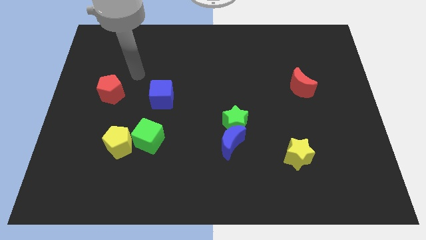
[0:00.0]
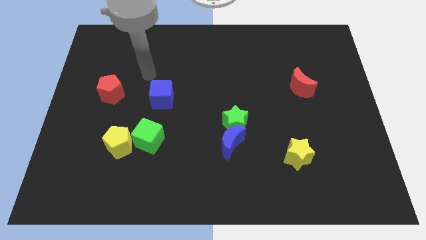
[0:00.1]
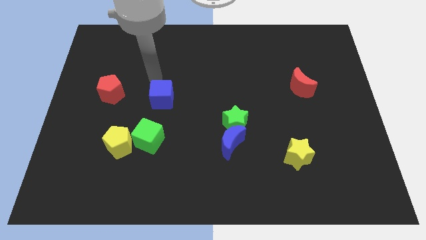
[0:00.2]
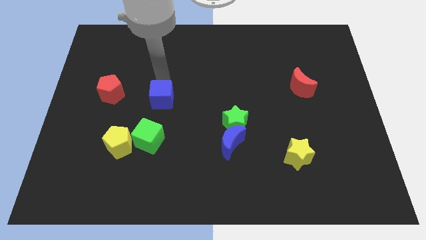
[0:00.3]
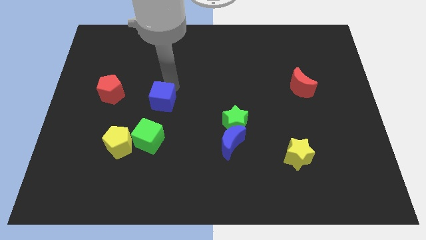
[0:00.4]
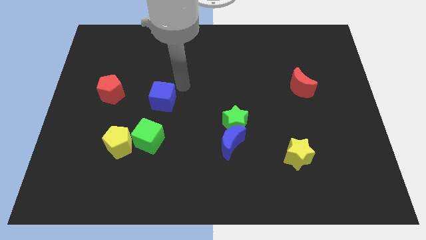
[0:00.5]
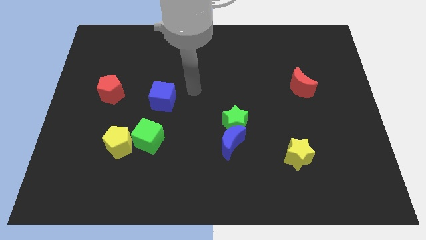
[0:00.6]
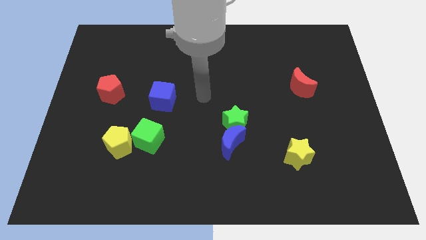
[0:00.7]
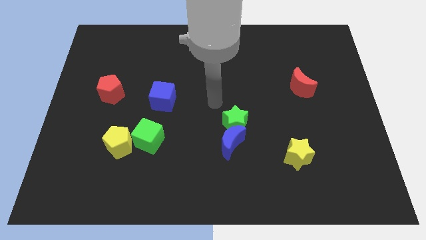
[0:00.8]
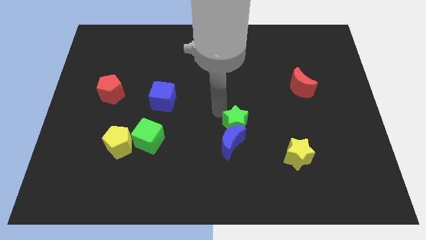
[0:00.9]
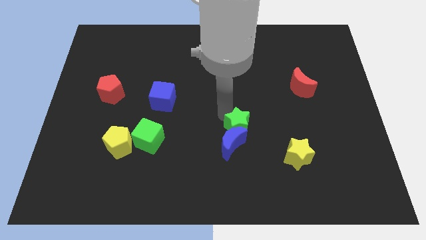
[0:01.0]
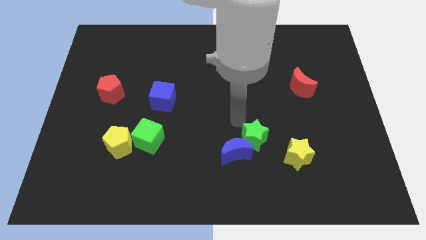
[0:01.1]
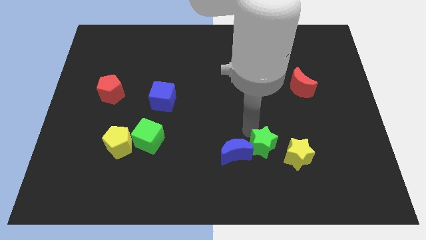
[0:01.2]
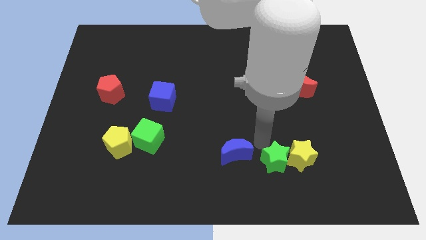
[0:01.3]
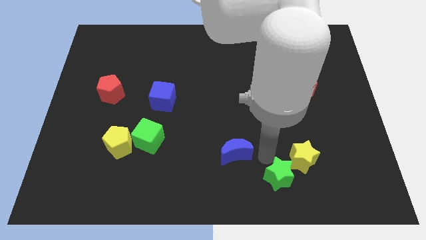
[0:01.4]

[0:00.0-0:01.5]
pull the blue moon apart from the green star

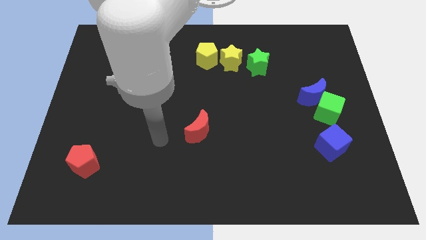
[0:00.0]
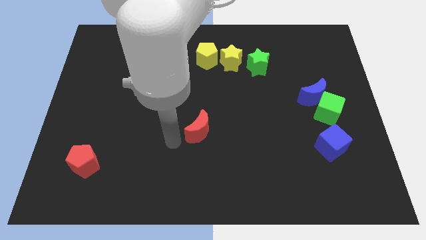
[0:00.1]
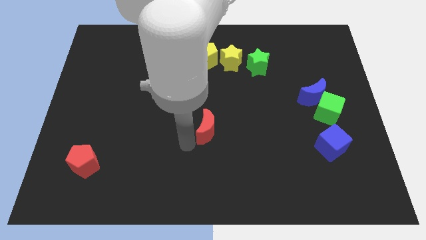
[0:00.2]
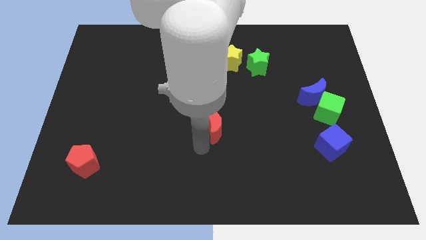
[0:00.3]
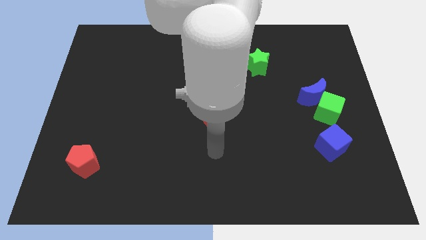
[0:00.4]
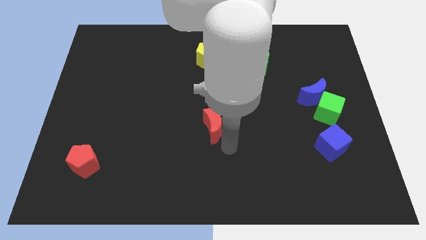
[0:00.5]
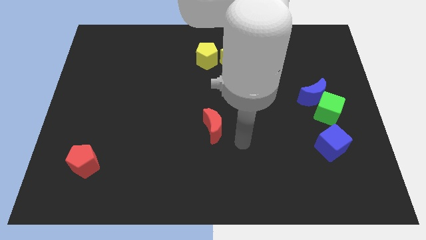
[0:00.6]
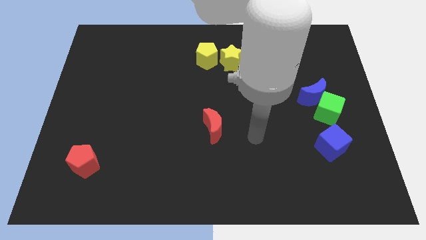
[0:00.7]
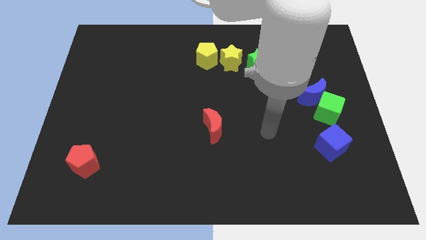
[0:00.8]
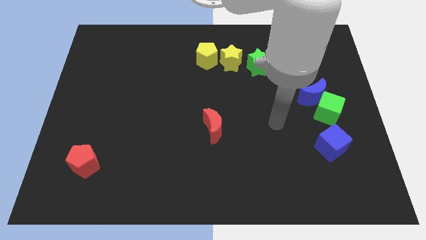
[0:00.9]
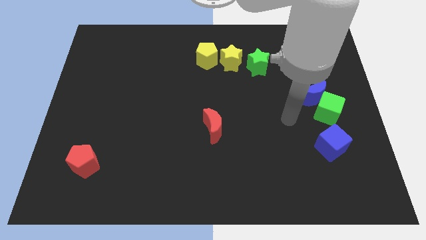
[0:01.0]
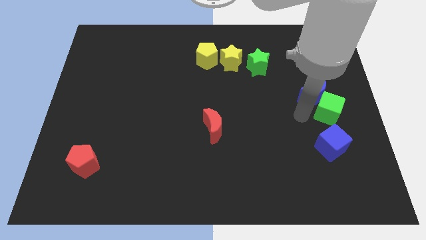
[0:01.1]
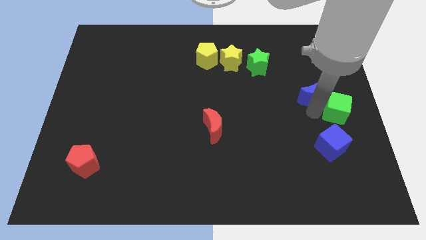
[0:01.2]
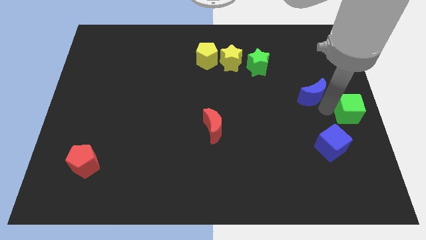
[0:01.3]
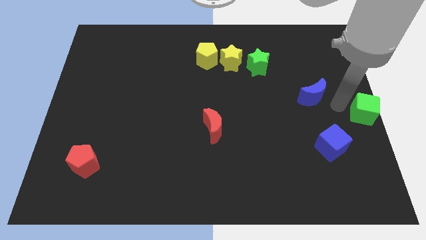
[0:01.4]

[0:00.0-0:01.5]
pull the blue moon apart from the green cube

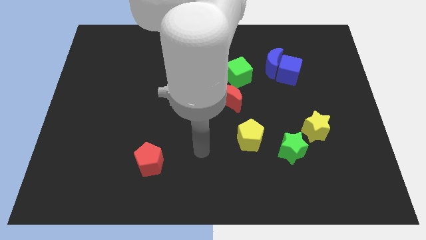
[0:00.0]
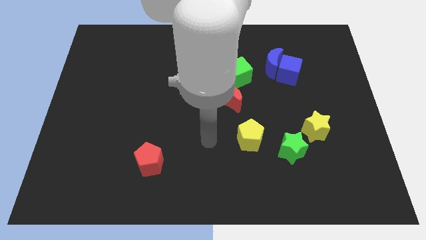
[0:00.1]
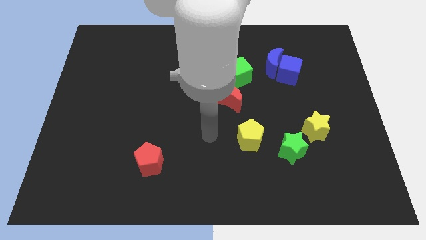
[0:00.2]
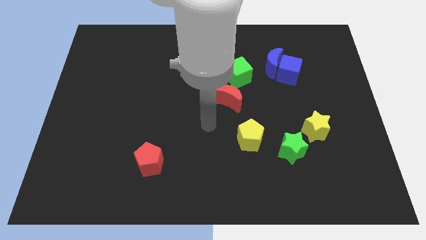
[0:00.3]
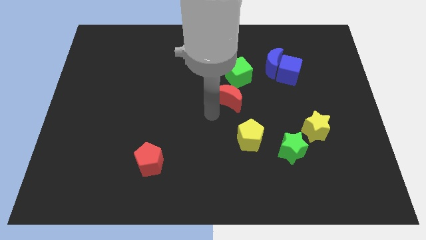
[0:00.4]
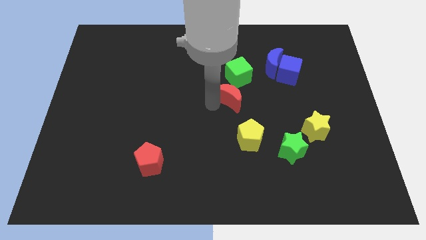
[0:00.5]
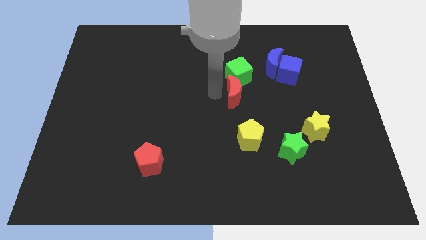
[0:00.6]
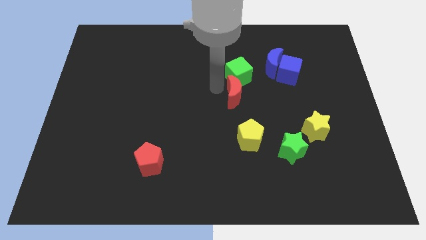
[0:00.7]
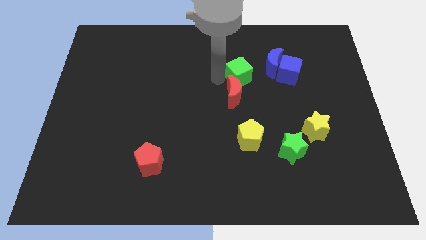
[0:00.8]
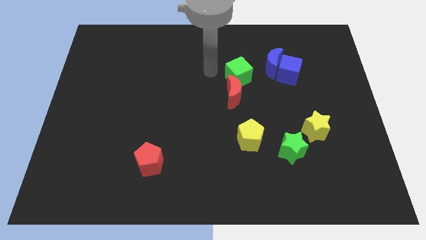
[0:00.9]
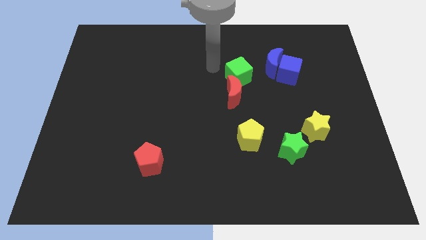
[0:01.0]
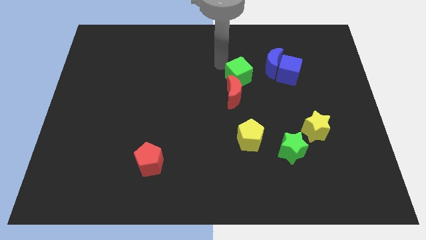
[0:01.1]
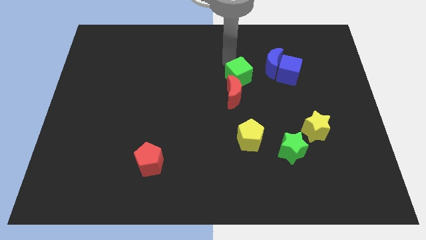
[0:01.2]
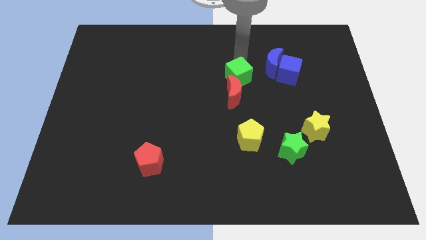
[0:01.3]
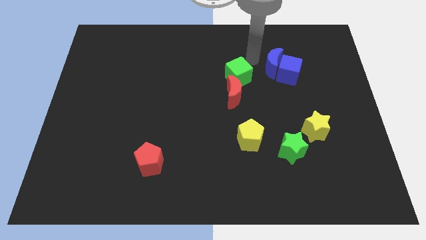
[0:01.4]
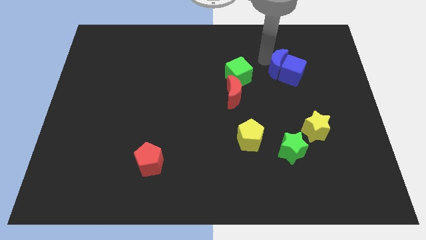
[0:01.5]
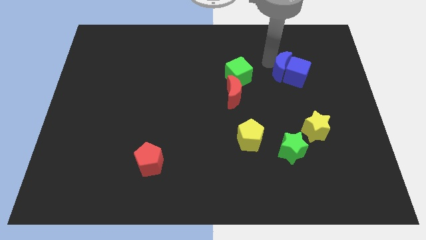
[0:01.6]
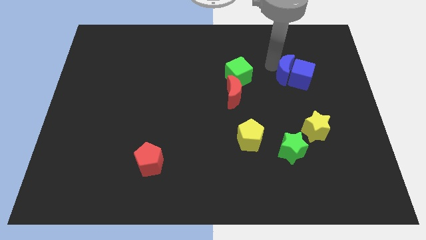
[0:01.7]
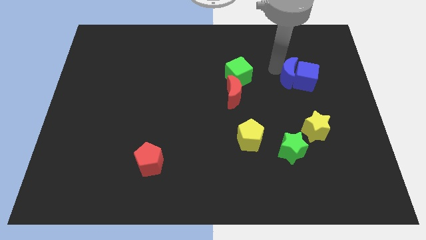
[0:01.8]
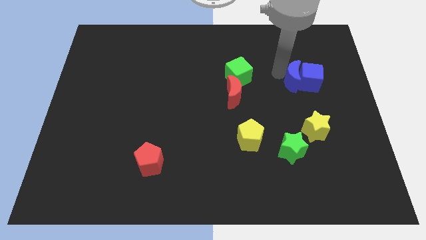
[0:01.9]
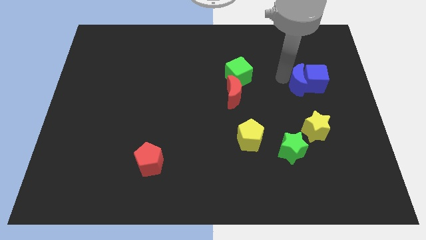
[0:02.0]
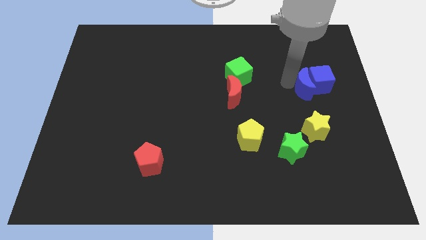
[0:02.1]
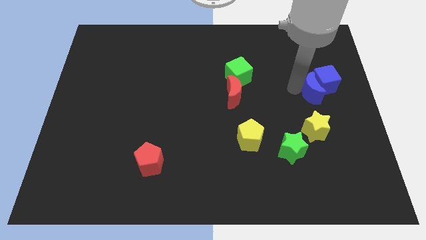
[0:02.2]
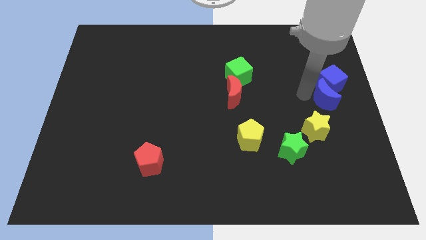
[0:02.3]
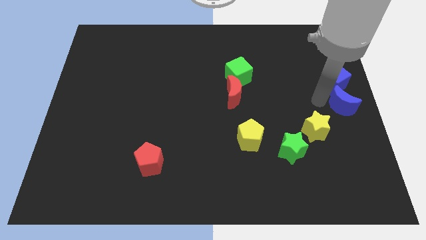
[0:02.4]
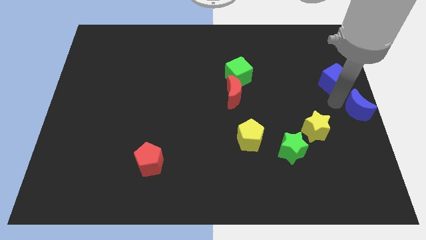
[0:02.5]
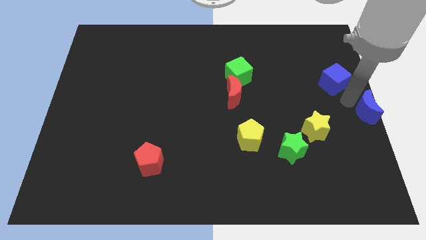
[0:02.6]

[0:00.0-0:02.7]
move the blue cube away from the blue moon

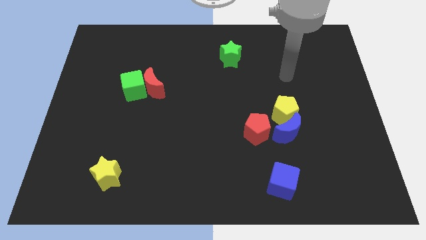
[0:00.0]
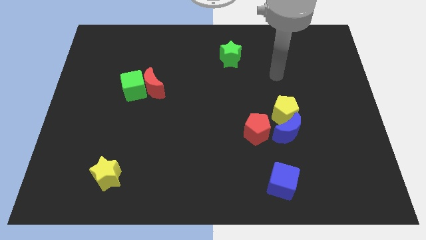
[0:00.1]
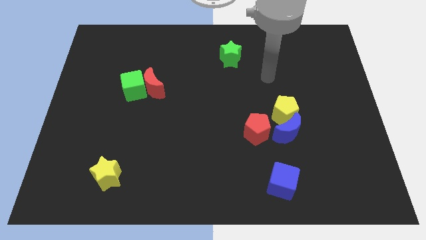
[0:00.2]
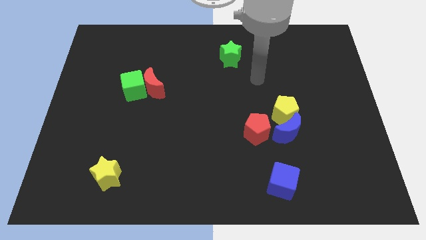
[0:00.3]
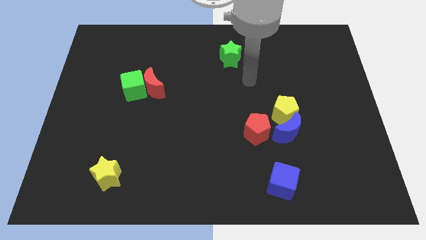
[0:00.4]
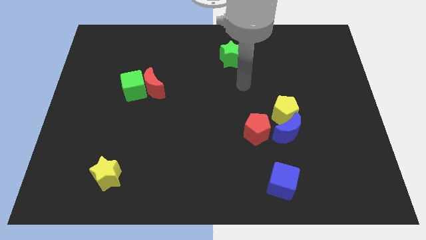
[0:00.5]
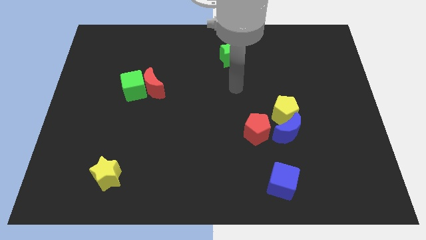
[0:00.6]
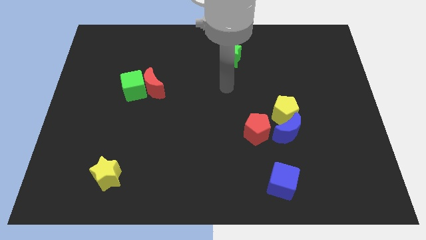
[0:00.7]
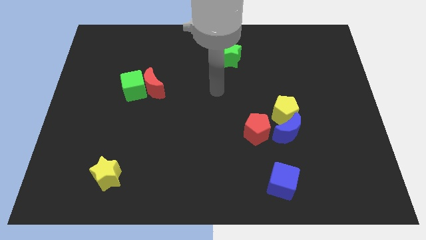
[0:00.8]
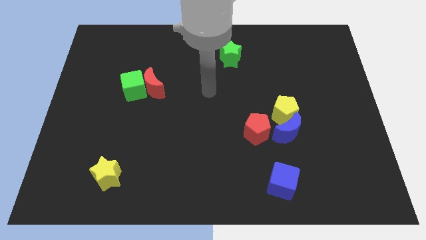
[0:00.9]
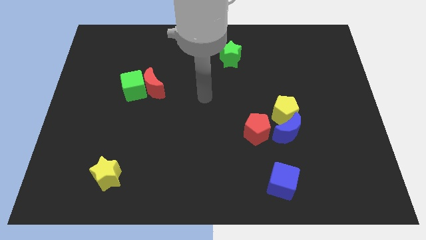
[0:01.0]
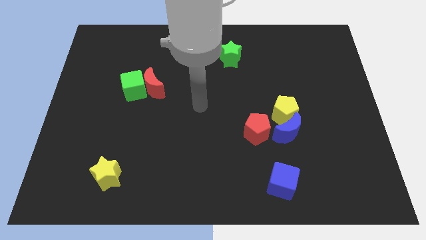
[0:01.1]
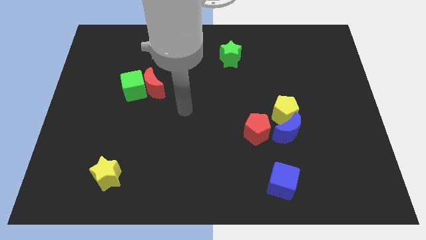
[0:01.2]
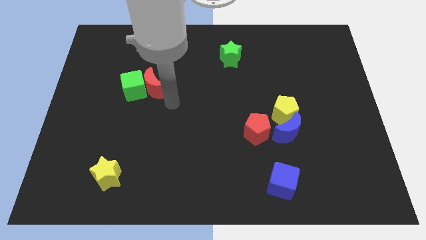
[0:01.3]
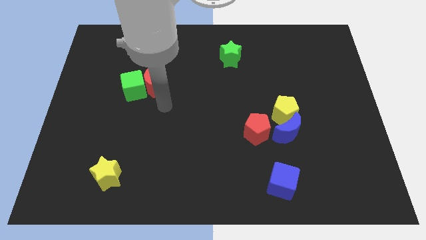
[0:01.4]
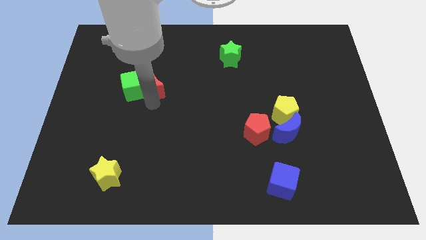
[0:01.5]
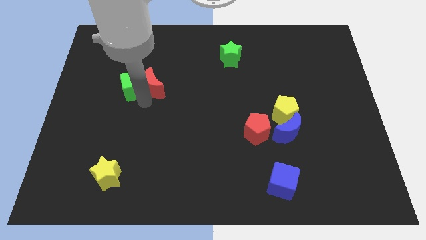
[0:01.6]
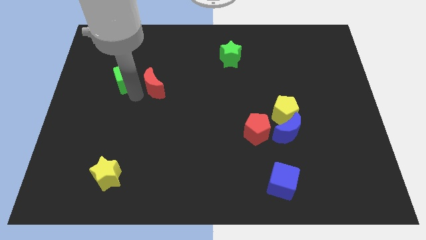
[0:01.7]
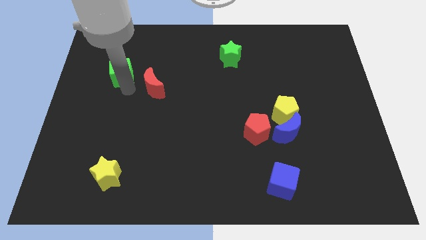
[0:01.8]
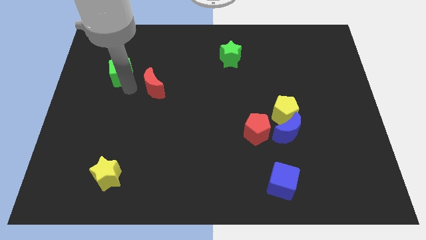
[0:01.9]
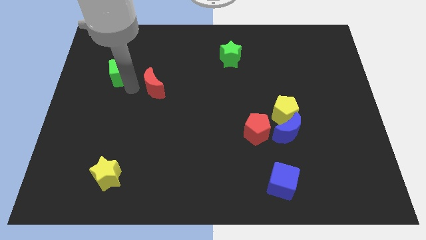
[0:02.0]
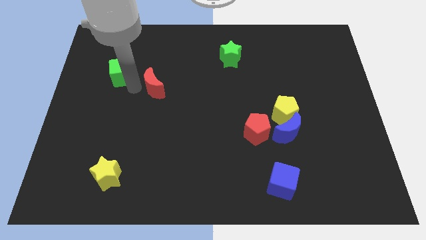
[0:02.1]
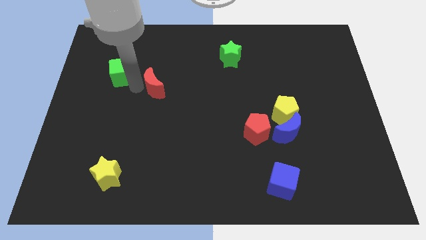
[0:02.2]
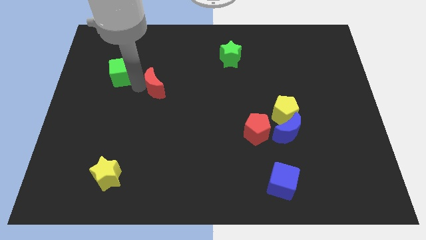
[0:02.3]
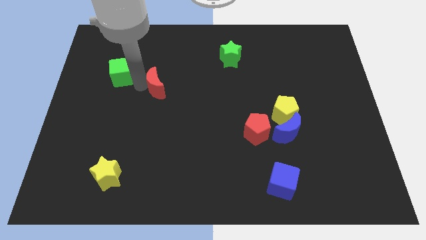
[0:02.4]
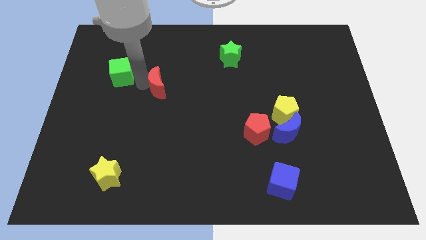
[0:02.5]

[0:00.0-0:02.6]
separate the red moon from the green cube

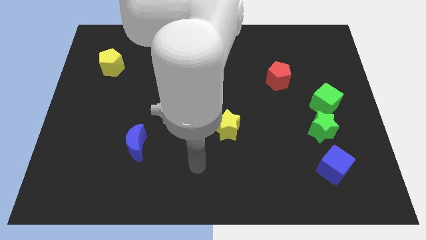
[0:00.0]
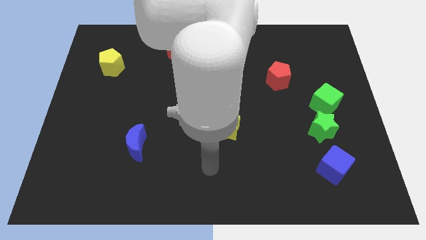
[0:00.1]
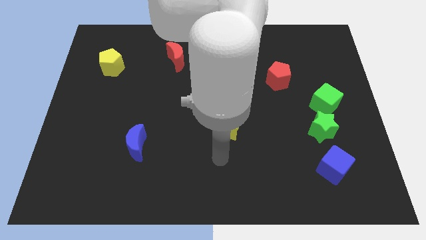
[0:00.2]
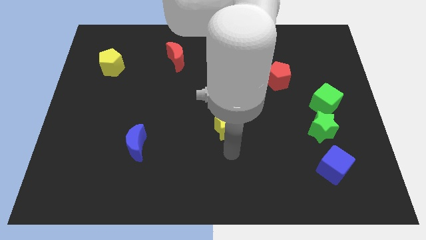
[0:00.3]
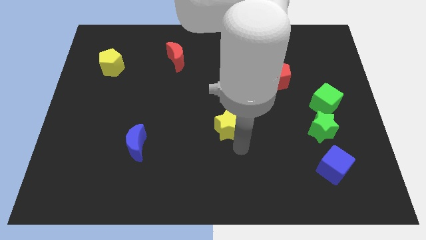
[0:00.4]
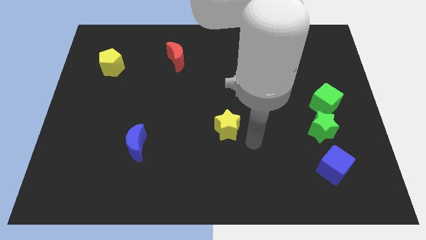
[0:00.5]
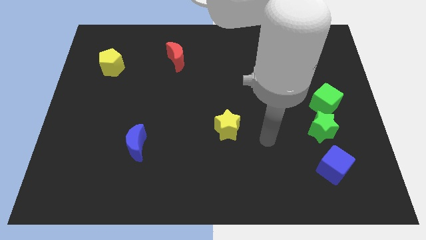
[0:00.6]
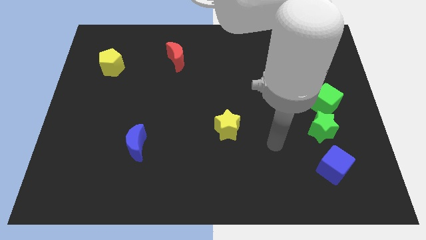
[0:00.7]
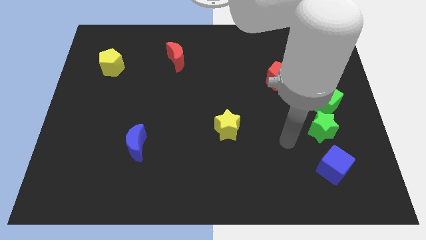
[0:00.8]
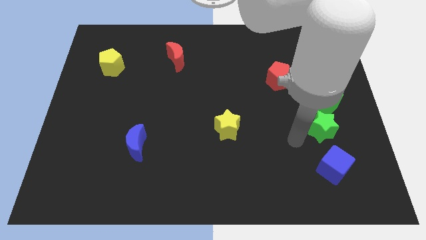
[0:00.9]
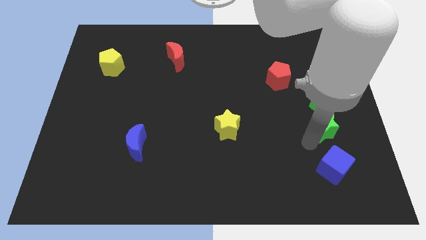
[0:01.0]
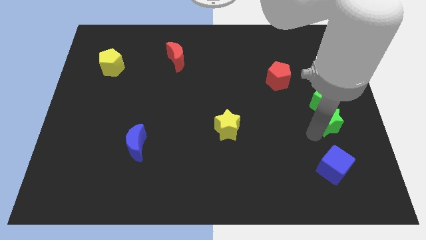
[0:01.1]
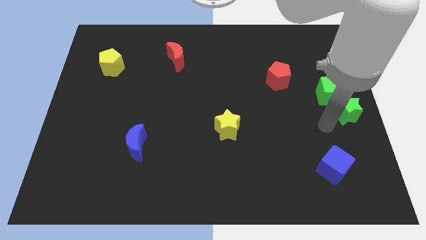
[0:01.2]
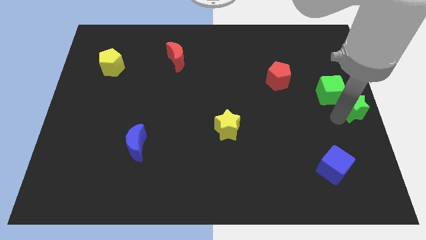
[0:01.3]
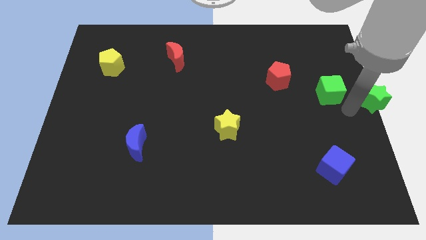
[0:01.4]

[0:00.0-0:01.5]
move the green cube away from the green star
